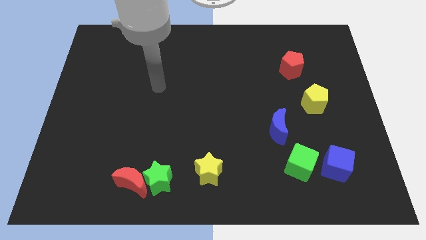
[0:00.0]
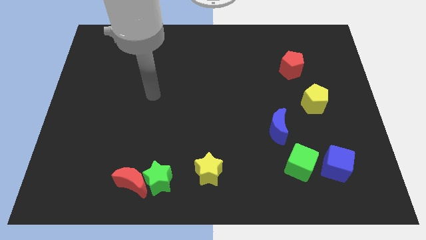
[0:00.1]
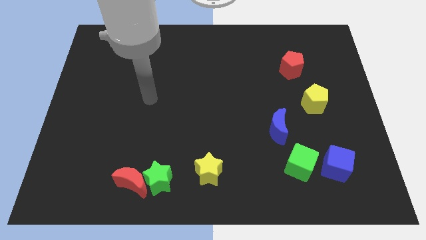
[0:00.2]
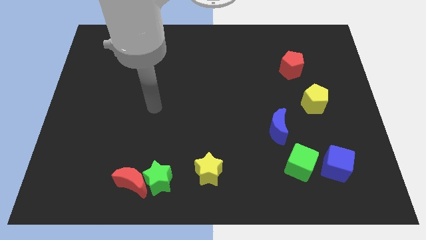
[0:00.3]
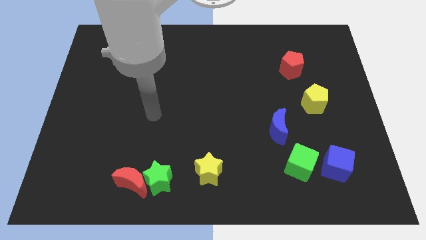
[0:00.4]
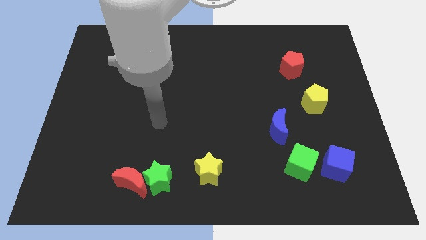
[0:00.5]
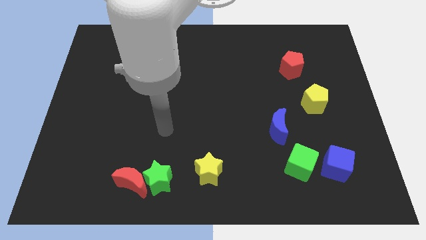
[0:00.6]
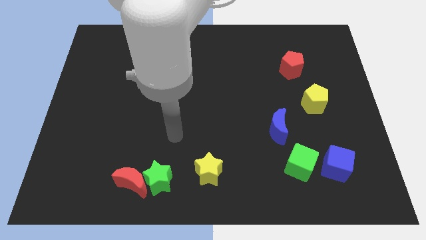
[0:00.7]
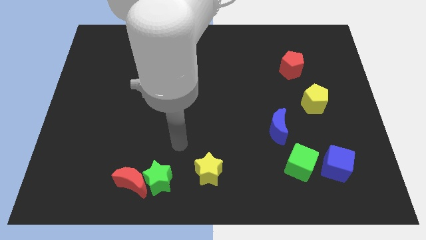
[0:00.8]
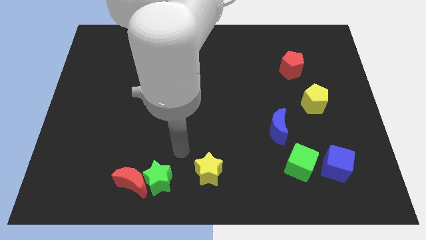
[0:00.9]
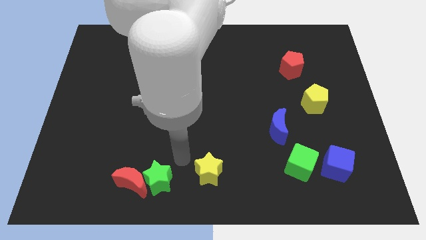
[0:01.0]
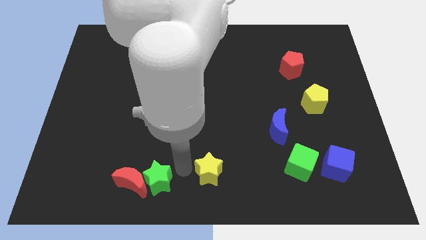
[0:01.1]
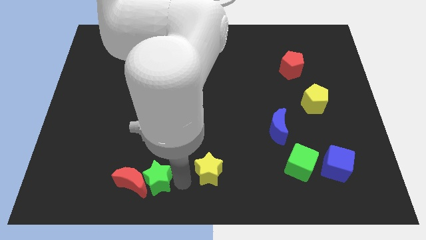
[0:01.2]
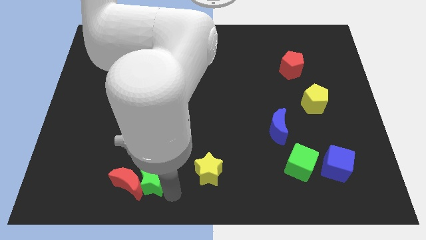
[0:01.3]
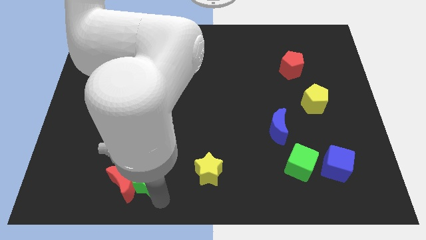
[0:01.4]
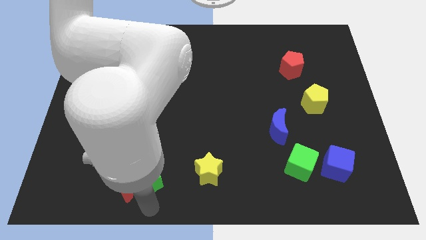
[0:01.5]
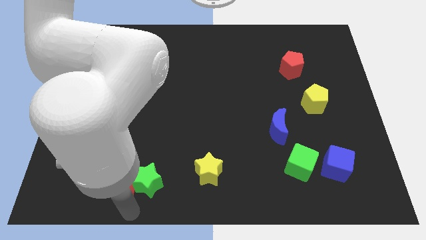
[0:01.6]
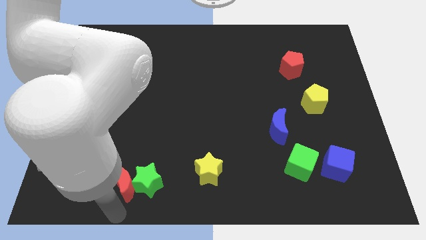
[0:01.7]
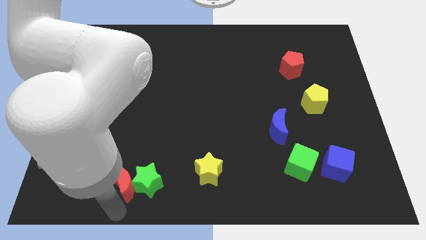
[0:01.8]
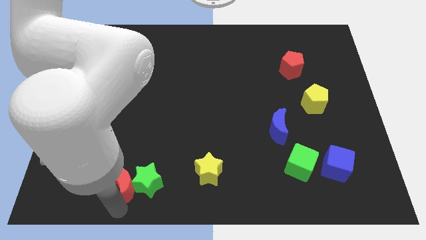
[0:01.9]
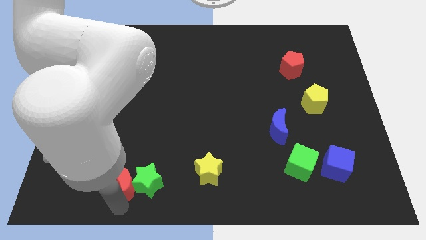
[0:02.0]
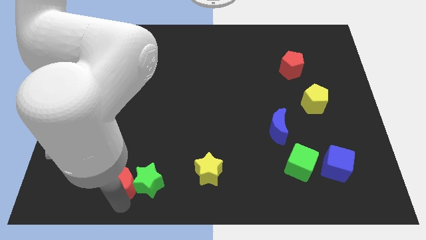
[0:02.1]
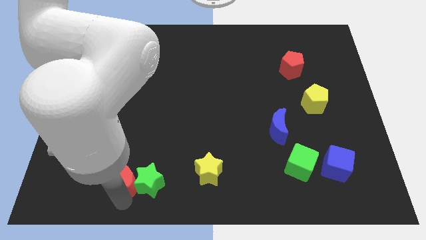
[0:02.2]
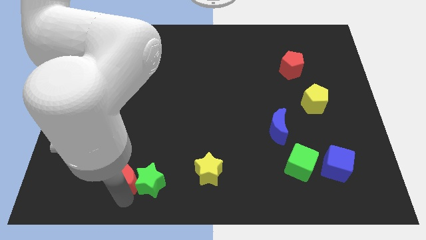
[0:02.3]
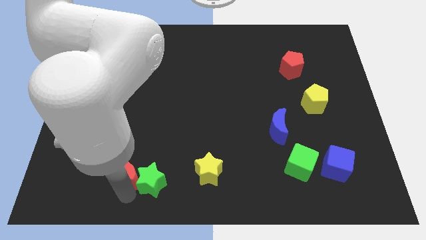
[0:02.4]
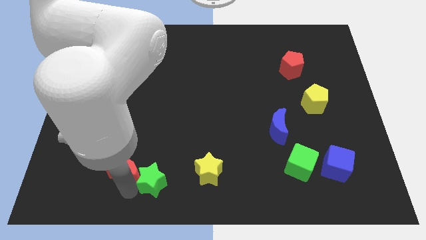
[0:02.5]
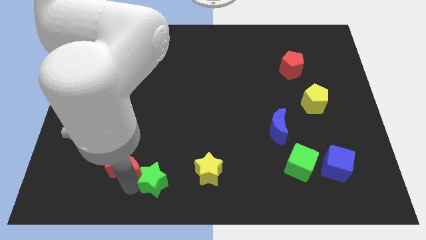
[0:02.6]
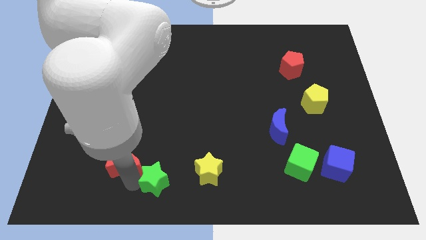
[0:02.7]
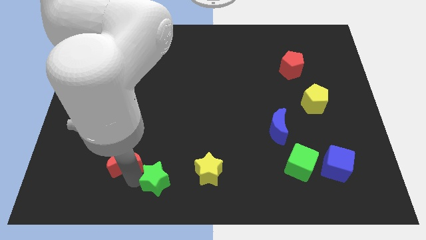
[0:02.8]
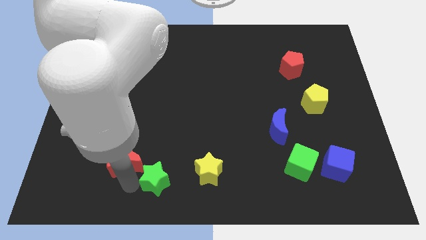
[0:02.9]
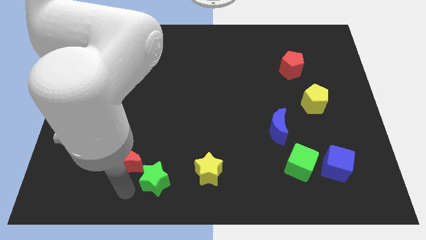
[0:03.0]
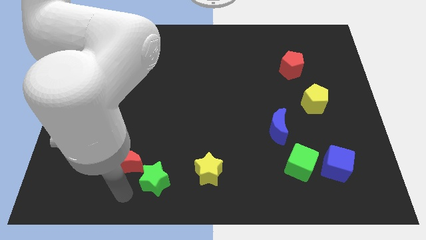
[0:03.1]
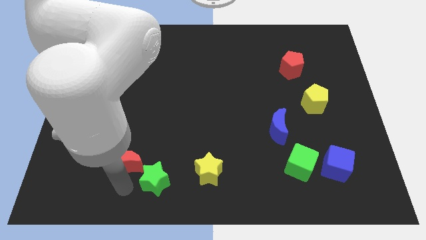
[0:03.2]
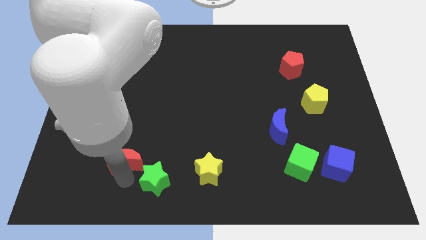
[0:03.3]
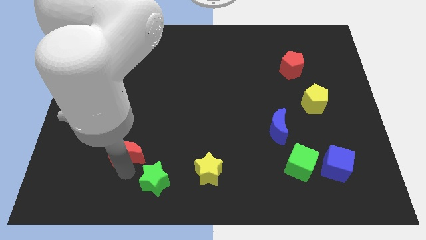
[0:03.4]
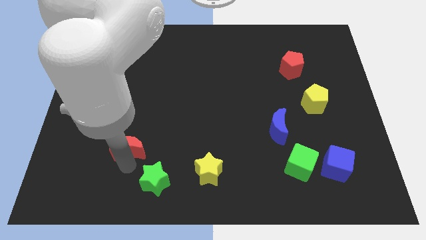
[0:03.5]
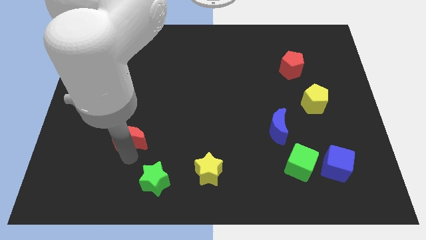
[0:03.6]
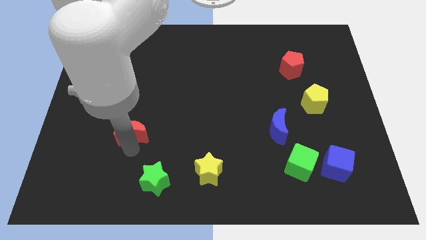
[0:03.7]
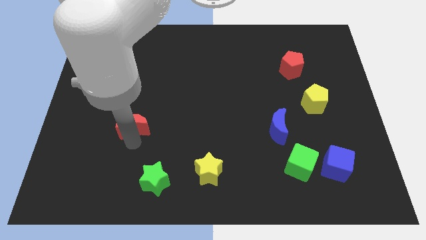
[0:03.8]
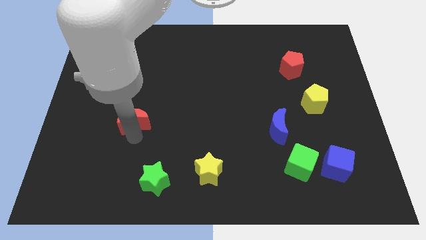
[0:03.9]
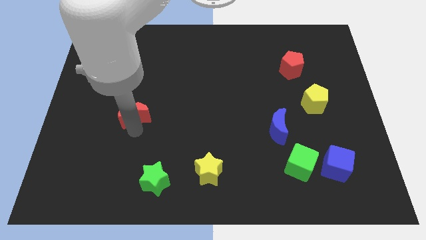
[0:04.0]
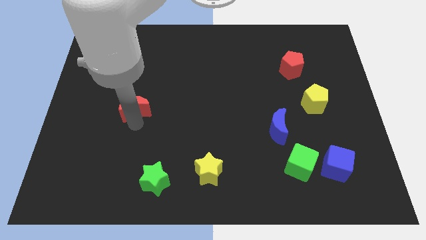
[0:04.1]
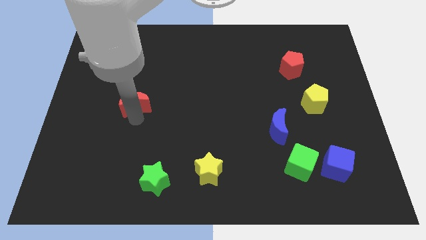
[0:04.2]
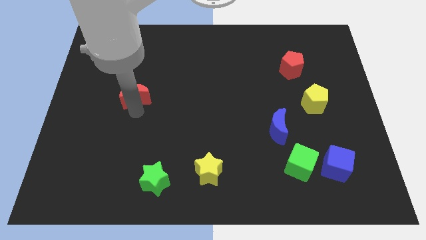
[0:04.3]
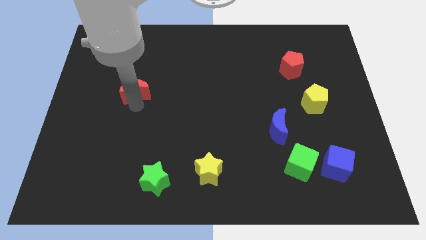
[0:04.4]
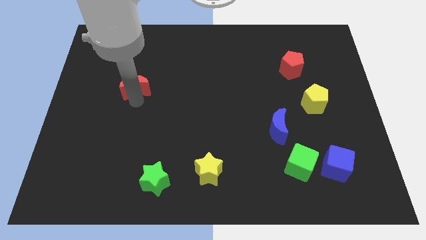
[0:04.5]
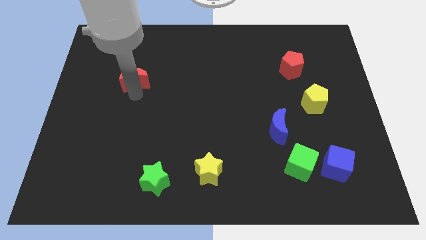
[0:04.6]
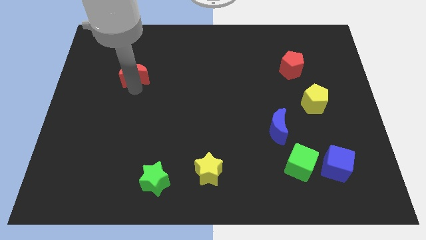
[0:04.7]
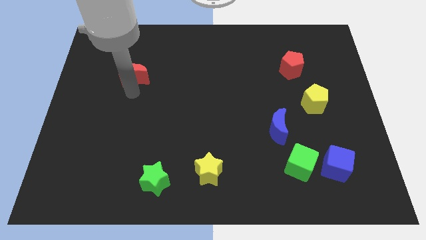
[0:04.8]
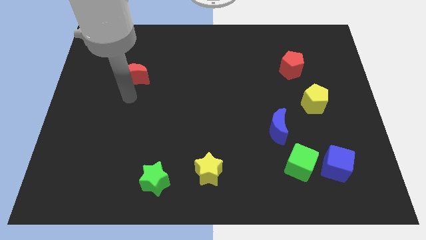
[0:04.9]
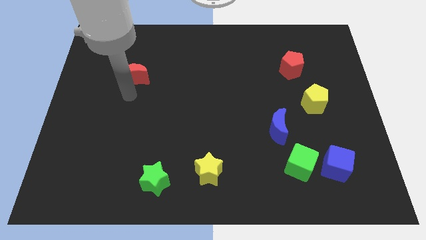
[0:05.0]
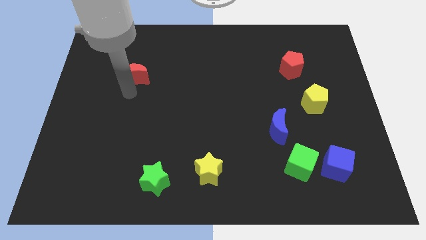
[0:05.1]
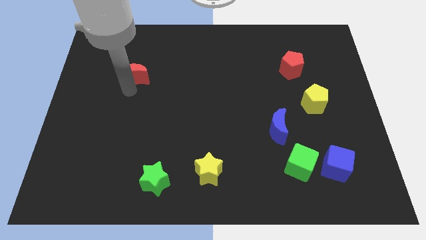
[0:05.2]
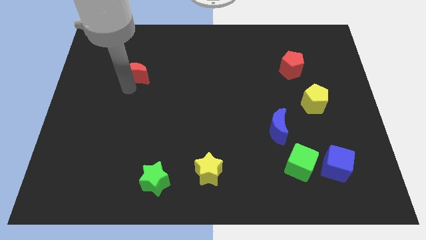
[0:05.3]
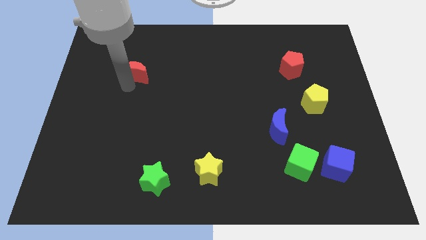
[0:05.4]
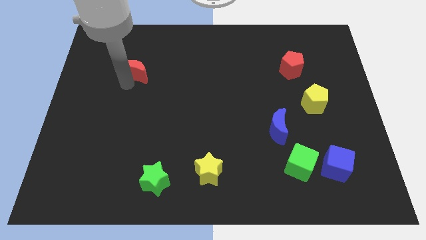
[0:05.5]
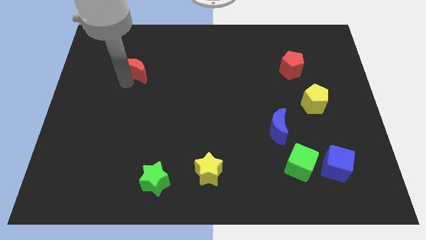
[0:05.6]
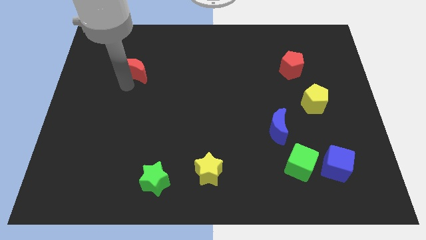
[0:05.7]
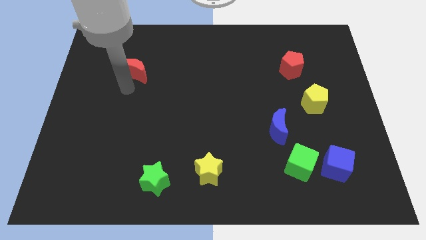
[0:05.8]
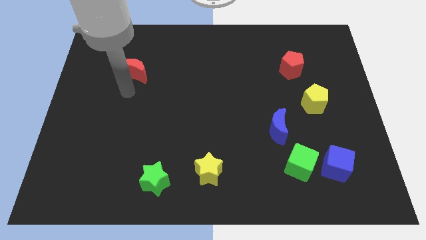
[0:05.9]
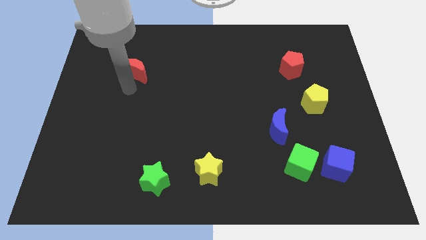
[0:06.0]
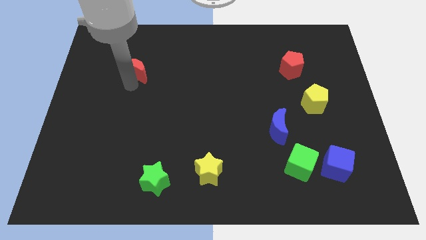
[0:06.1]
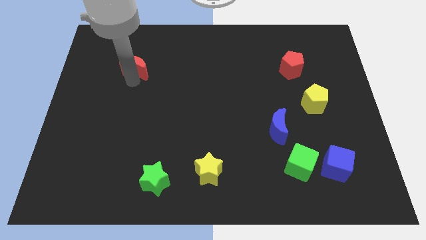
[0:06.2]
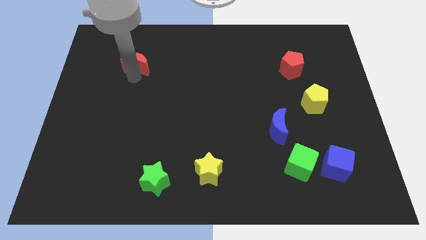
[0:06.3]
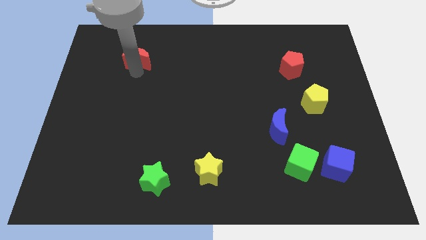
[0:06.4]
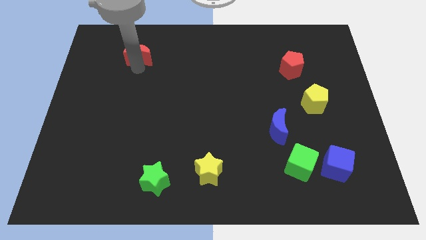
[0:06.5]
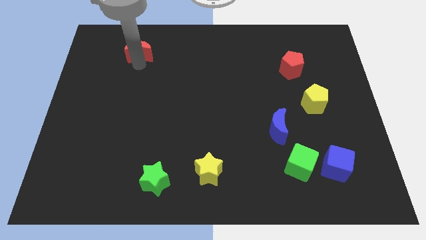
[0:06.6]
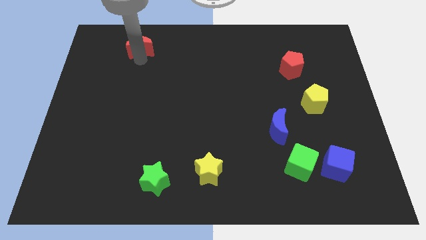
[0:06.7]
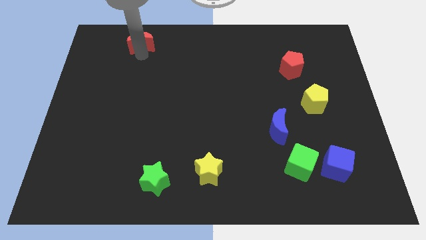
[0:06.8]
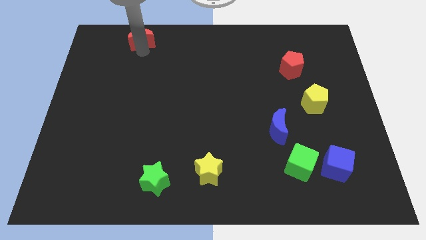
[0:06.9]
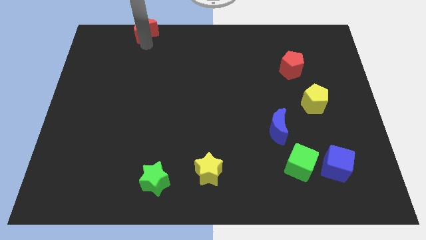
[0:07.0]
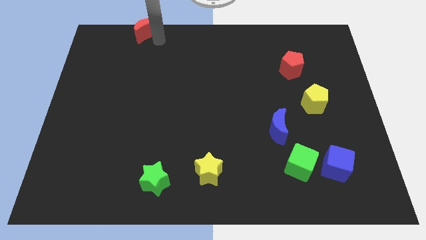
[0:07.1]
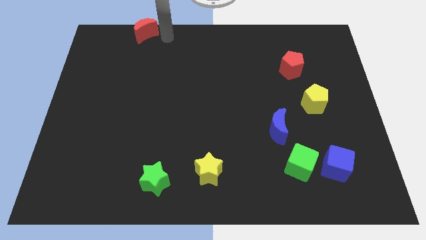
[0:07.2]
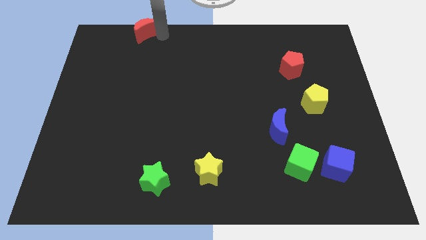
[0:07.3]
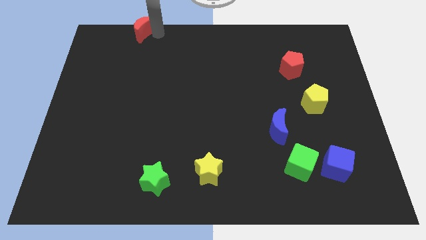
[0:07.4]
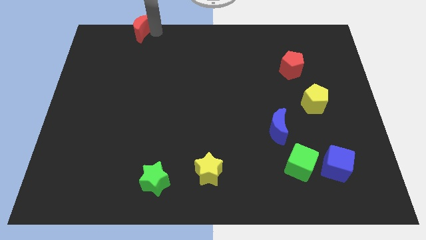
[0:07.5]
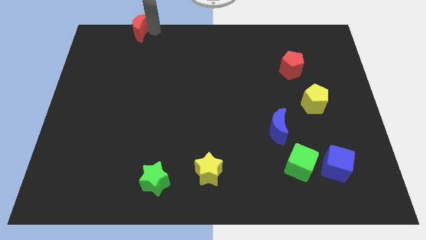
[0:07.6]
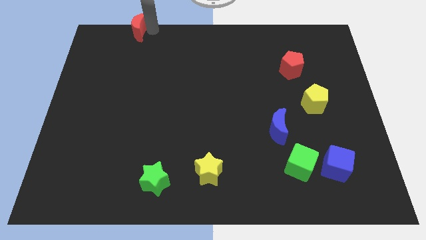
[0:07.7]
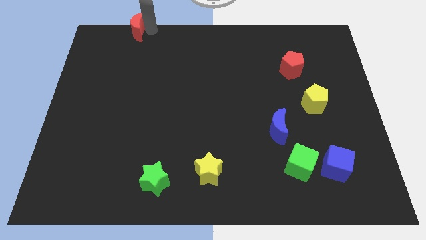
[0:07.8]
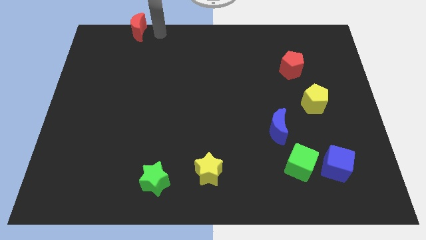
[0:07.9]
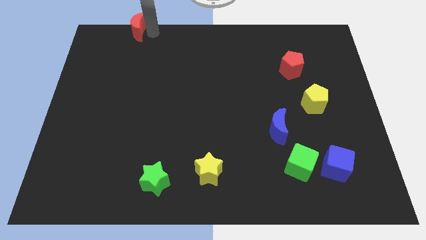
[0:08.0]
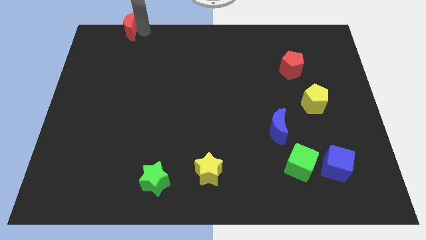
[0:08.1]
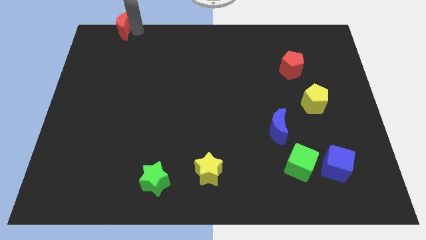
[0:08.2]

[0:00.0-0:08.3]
move the red moon to the top left corner
